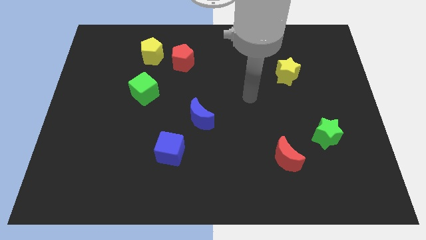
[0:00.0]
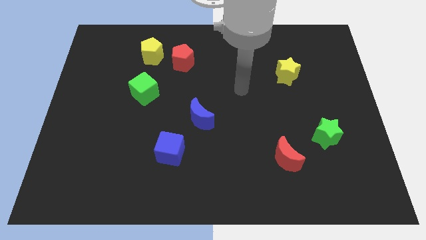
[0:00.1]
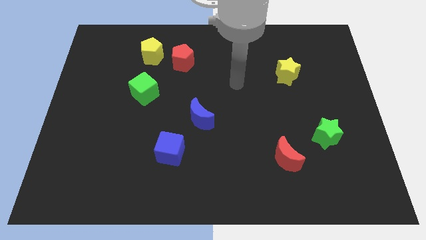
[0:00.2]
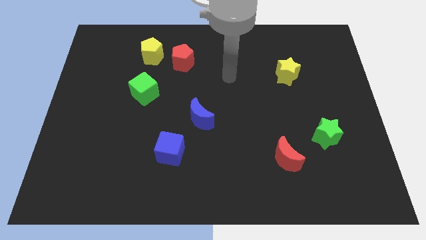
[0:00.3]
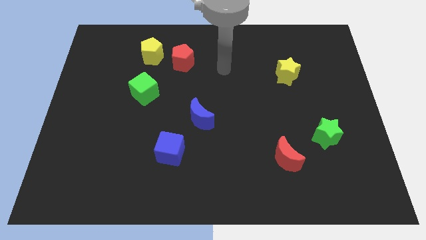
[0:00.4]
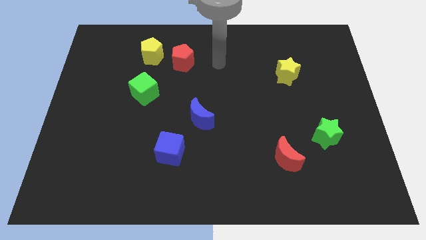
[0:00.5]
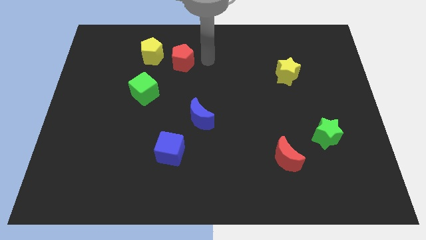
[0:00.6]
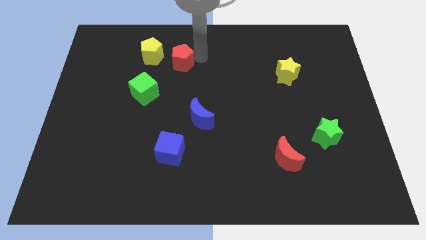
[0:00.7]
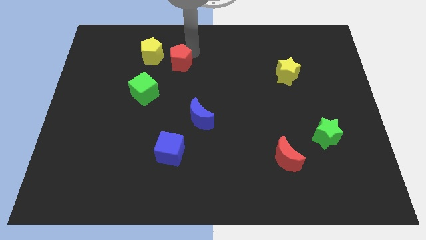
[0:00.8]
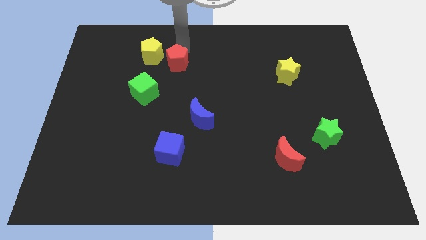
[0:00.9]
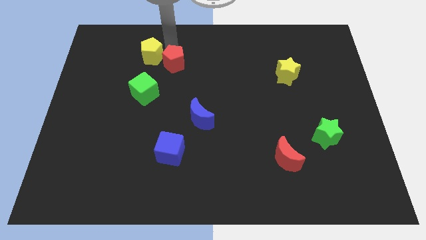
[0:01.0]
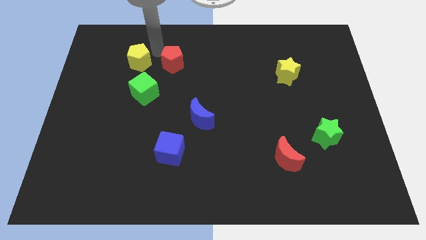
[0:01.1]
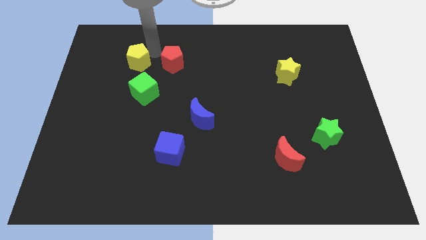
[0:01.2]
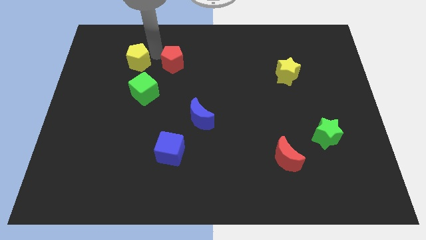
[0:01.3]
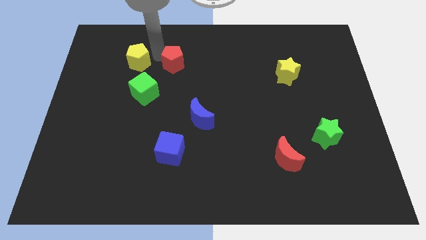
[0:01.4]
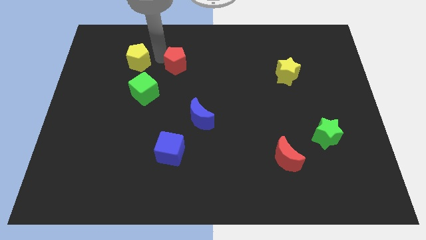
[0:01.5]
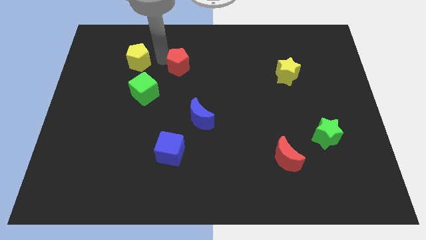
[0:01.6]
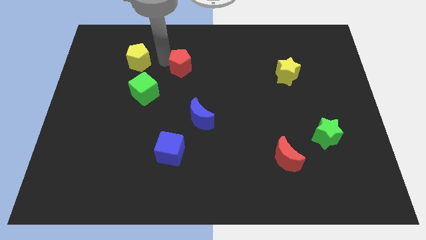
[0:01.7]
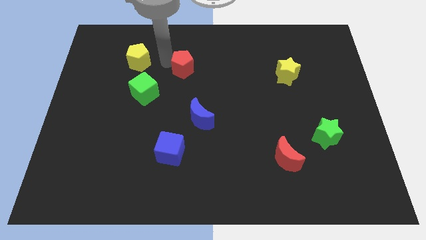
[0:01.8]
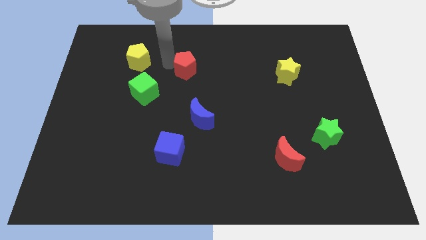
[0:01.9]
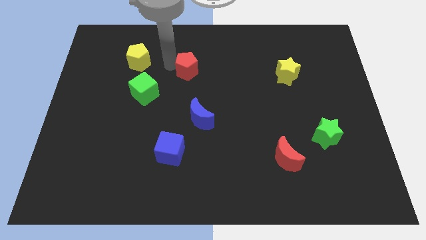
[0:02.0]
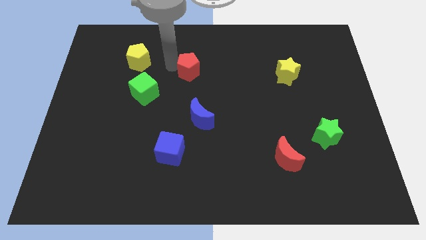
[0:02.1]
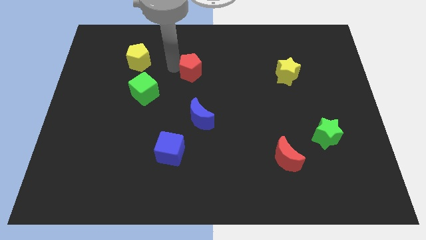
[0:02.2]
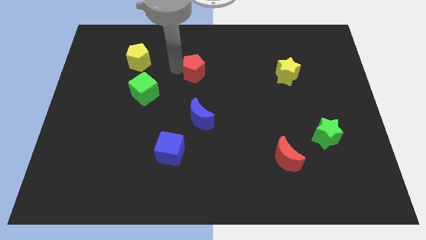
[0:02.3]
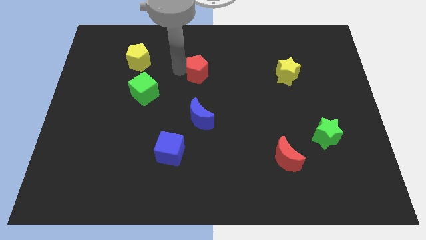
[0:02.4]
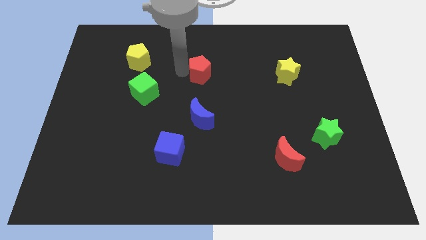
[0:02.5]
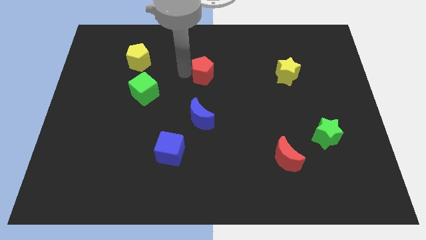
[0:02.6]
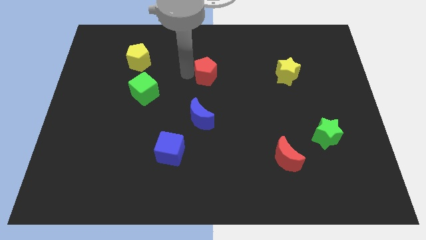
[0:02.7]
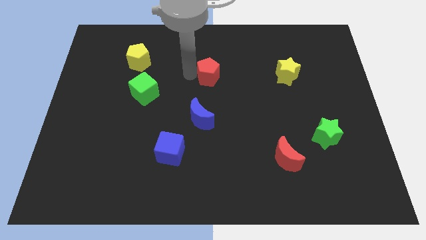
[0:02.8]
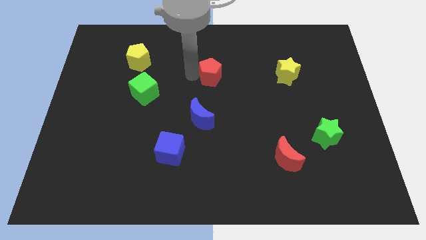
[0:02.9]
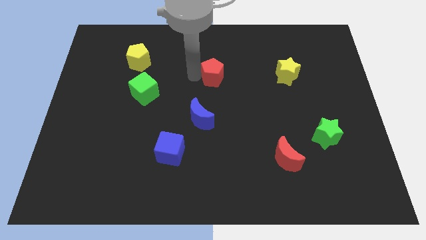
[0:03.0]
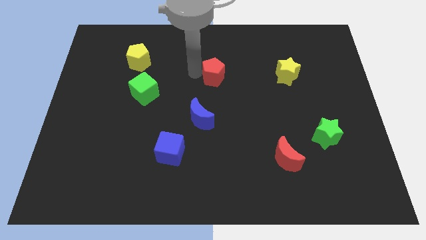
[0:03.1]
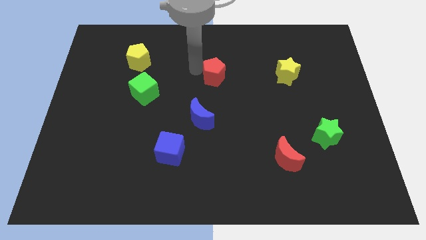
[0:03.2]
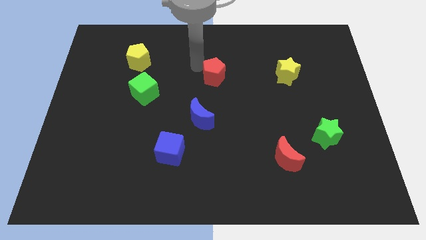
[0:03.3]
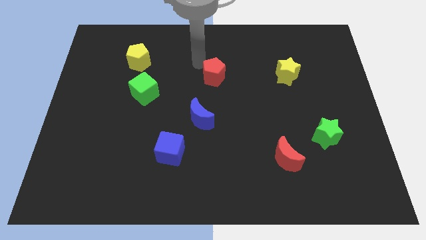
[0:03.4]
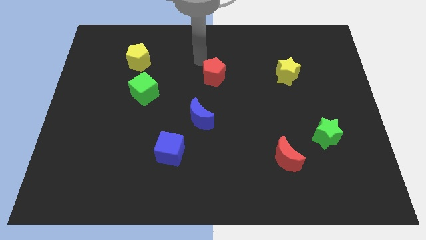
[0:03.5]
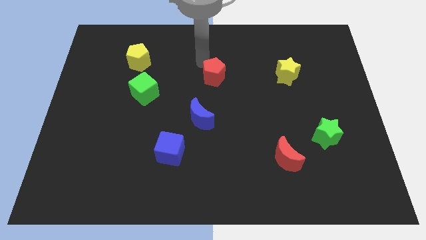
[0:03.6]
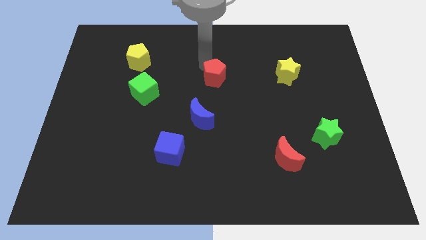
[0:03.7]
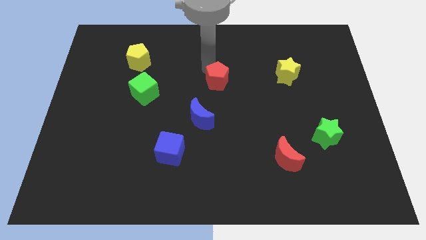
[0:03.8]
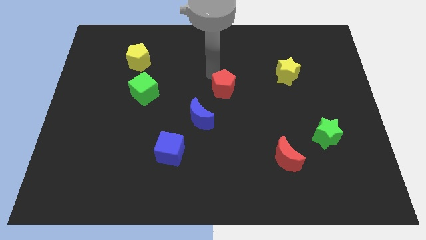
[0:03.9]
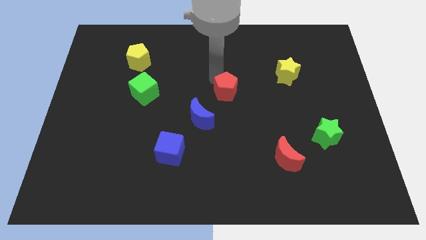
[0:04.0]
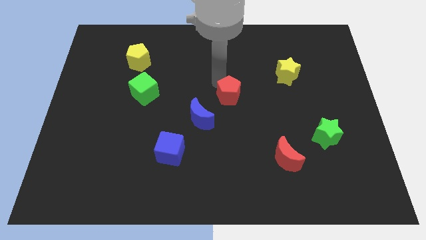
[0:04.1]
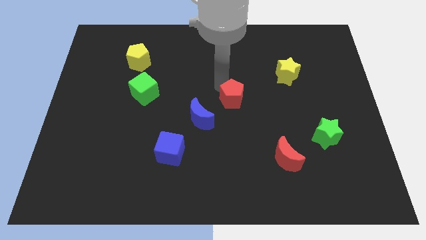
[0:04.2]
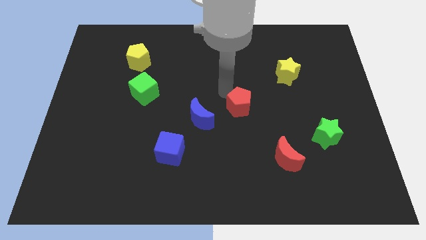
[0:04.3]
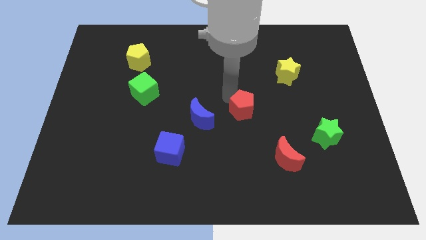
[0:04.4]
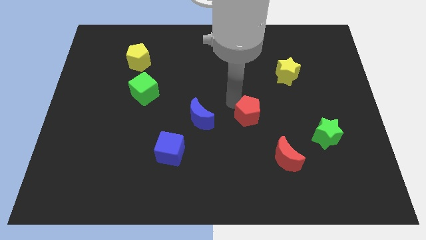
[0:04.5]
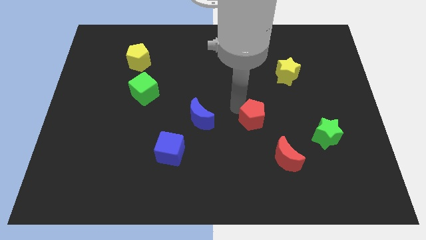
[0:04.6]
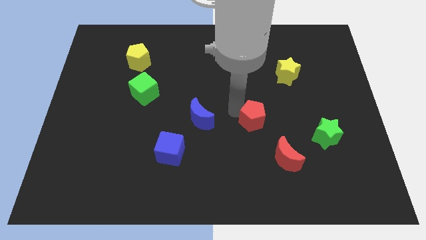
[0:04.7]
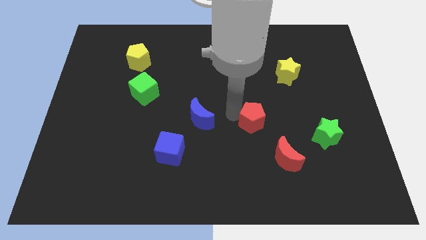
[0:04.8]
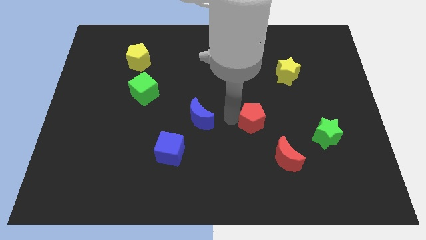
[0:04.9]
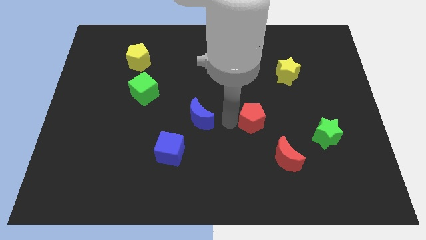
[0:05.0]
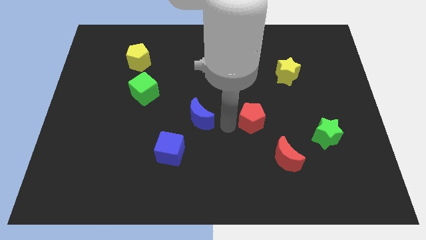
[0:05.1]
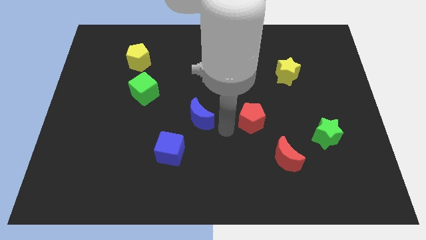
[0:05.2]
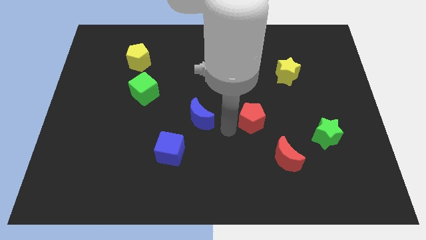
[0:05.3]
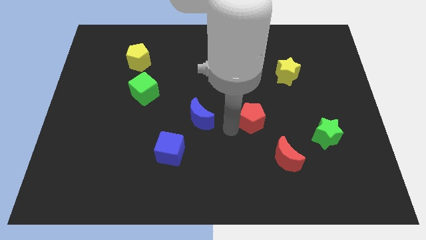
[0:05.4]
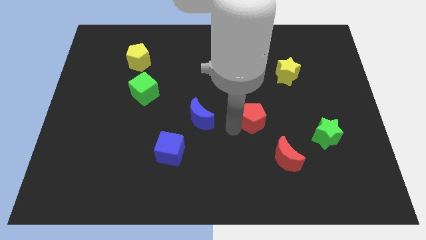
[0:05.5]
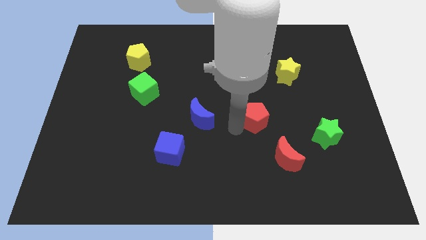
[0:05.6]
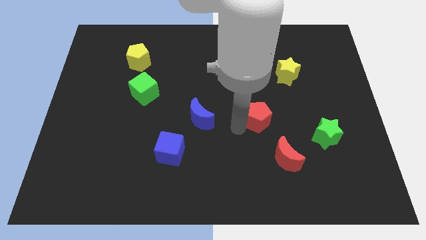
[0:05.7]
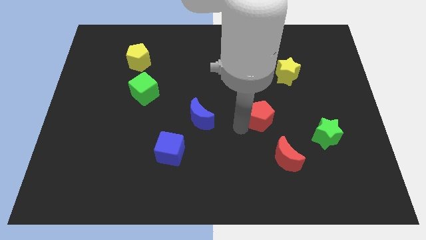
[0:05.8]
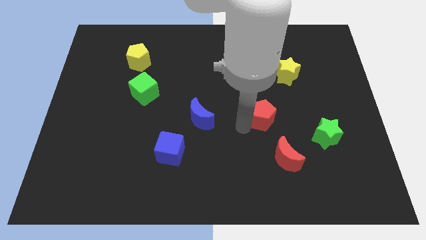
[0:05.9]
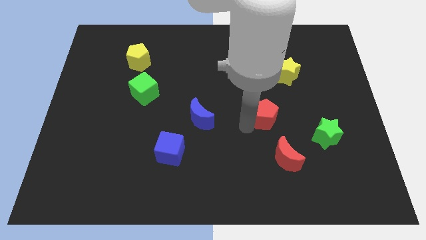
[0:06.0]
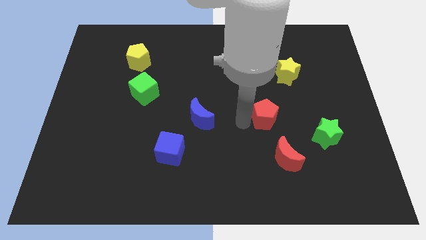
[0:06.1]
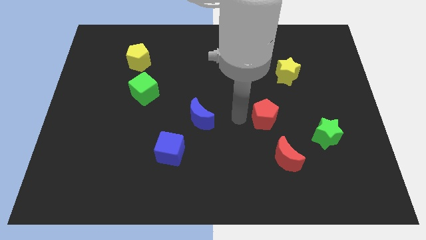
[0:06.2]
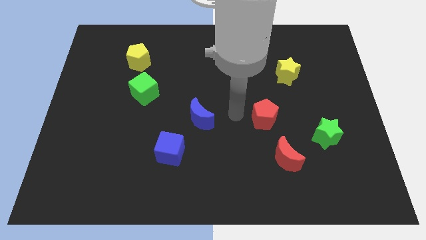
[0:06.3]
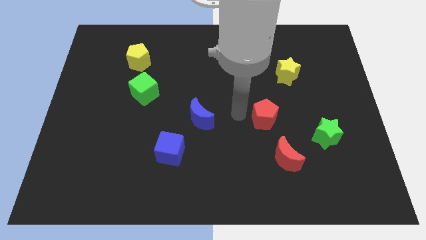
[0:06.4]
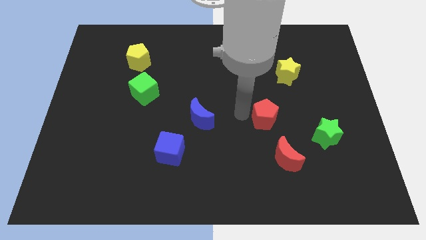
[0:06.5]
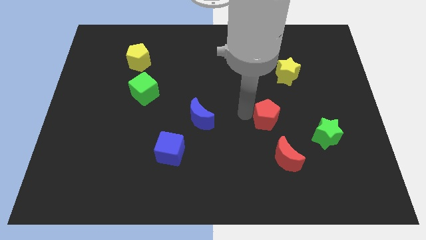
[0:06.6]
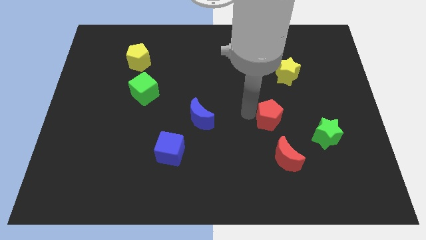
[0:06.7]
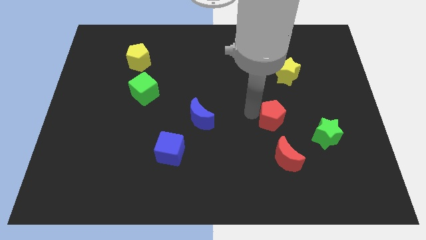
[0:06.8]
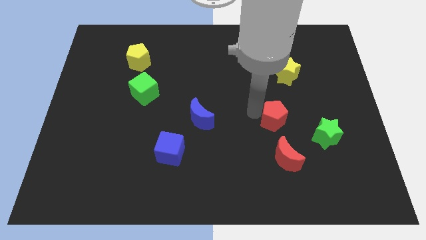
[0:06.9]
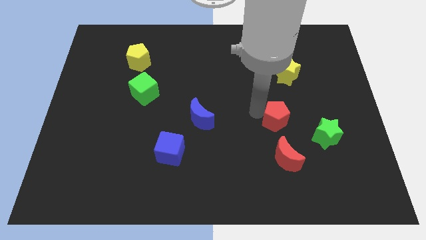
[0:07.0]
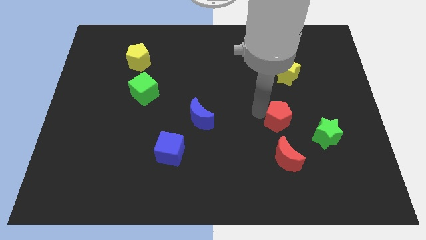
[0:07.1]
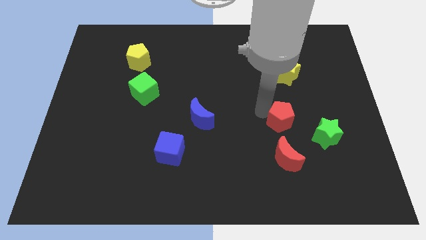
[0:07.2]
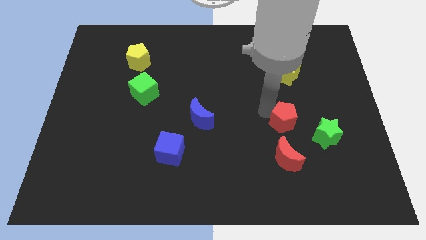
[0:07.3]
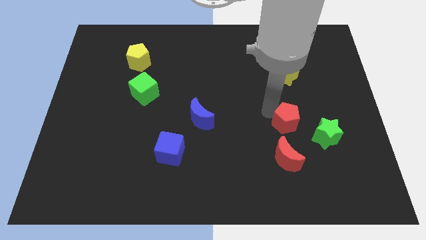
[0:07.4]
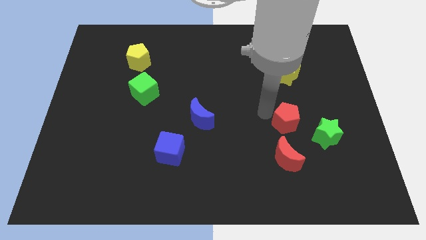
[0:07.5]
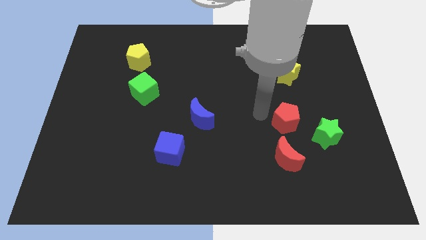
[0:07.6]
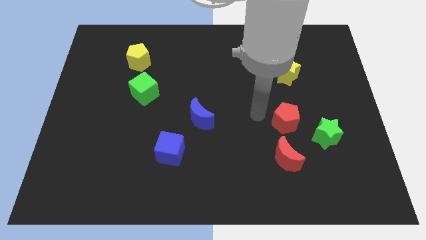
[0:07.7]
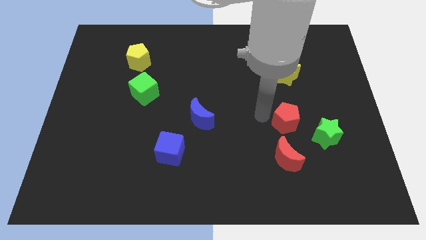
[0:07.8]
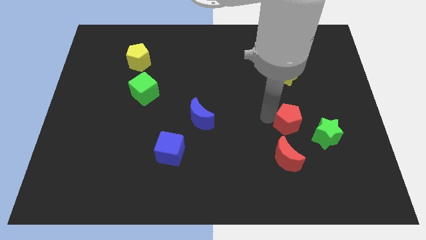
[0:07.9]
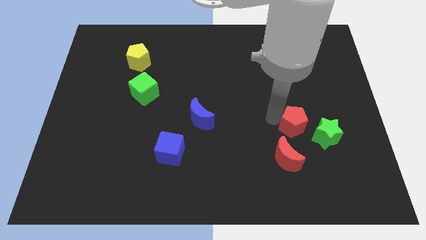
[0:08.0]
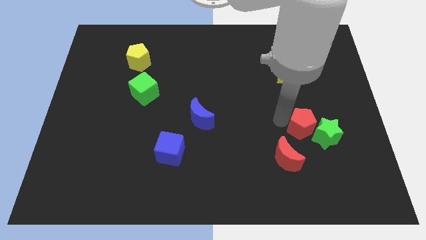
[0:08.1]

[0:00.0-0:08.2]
move the red pentagon towards the green star
